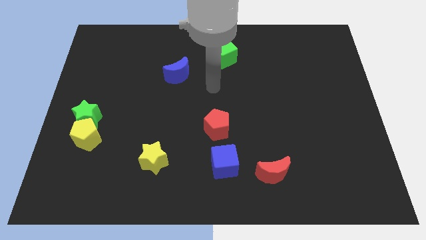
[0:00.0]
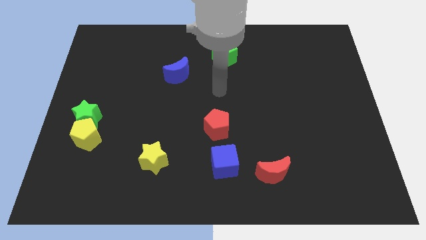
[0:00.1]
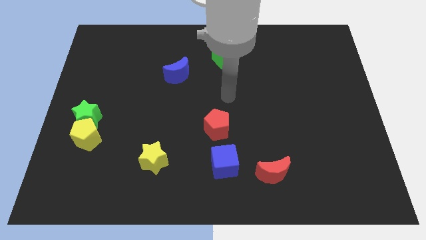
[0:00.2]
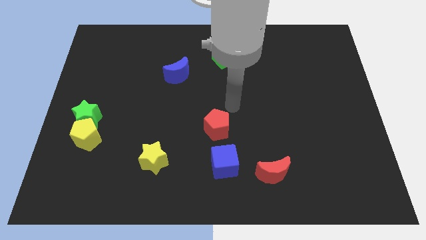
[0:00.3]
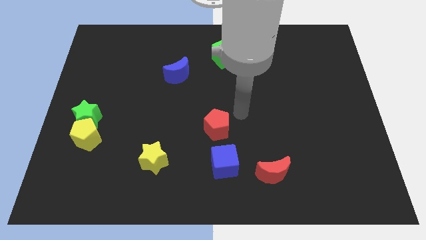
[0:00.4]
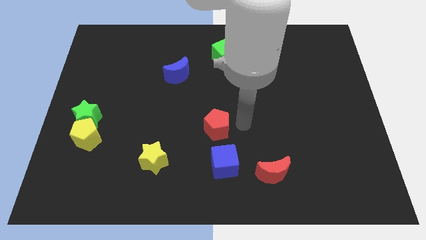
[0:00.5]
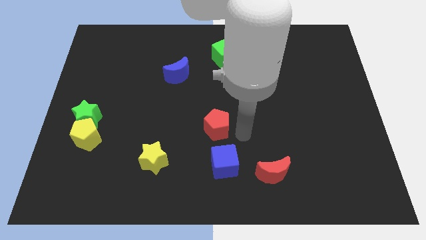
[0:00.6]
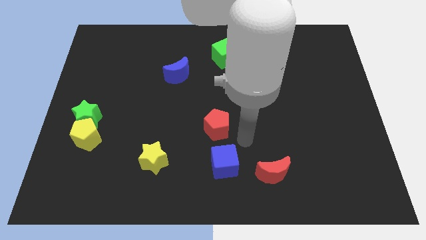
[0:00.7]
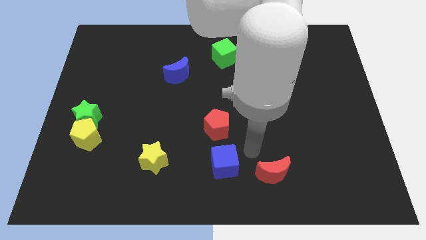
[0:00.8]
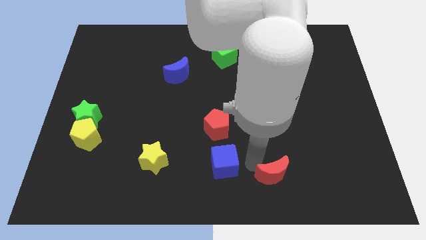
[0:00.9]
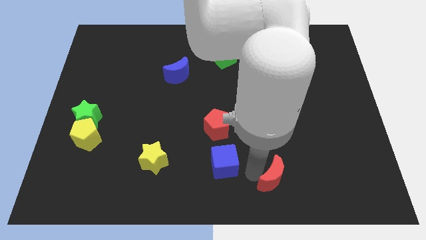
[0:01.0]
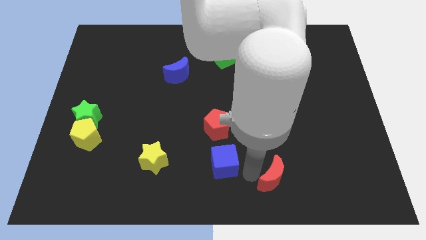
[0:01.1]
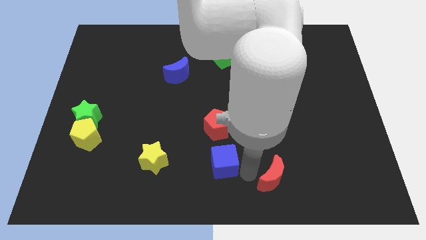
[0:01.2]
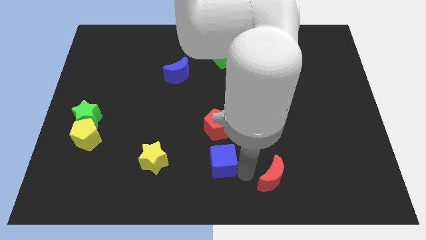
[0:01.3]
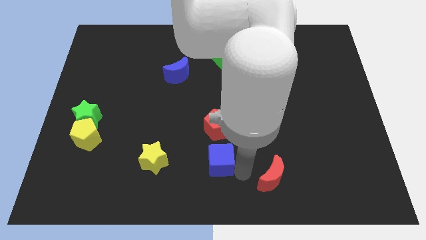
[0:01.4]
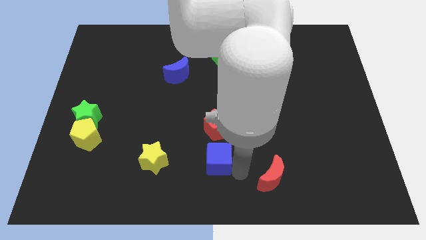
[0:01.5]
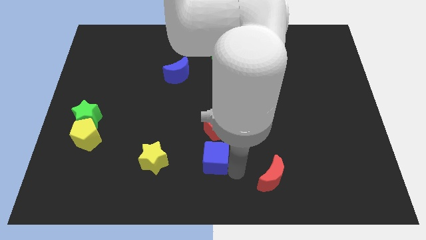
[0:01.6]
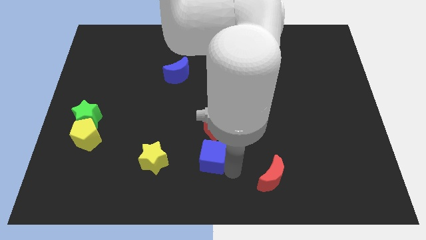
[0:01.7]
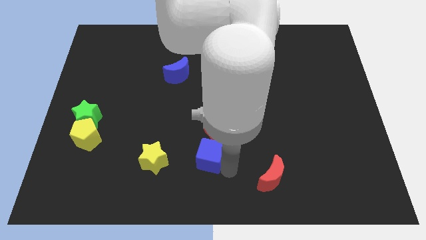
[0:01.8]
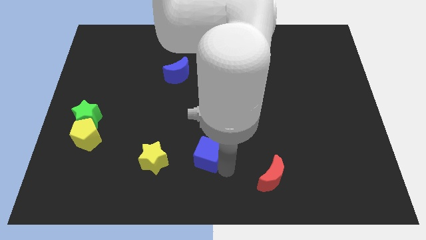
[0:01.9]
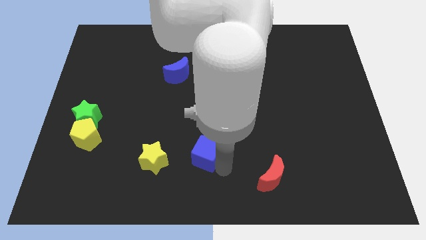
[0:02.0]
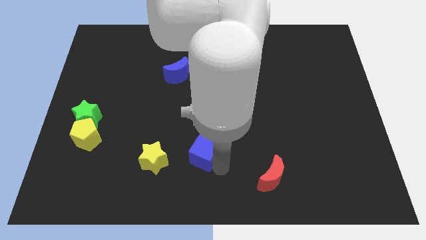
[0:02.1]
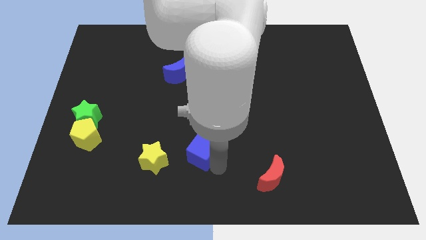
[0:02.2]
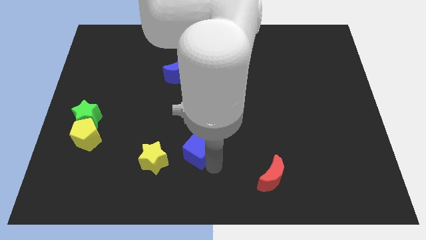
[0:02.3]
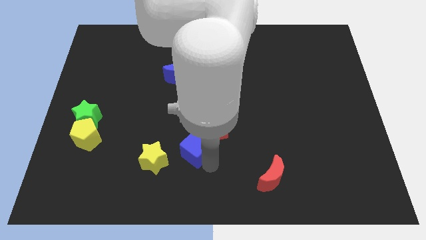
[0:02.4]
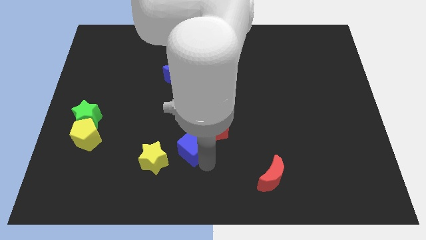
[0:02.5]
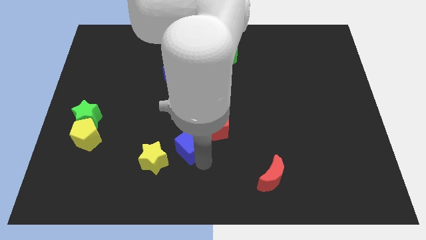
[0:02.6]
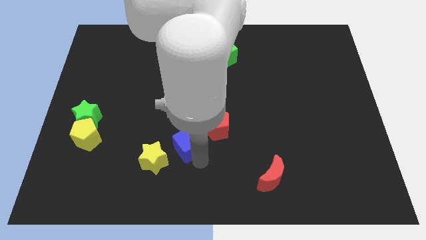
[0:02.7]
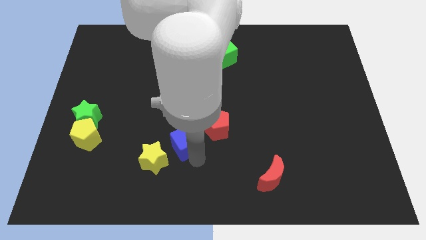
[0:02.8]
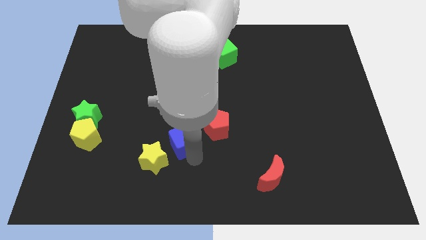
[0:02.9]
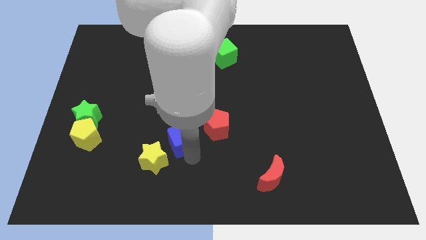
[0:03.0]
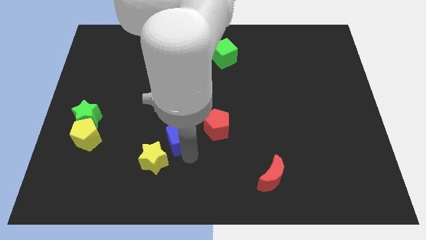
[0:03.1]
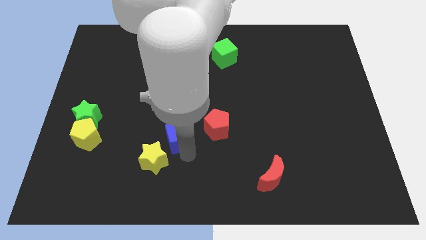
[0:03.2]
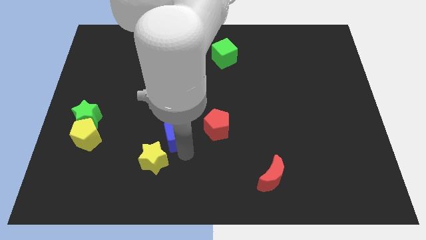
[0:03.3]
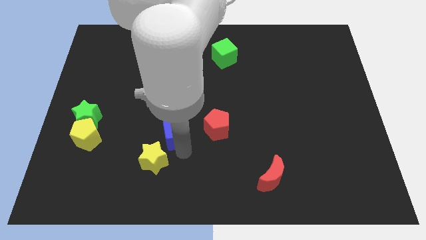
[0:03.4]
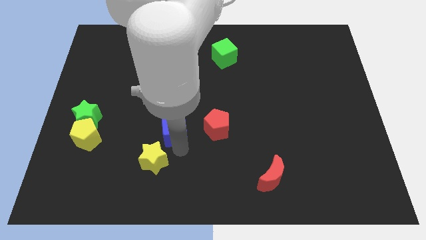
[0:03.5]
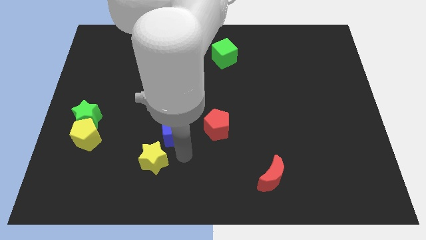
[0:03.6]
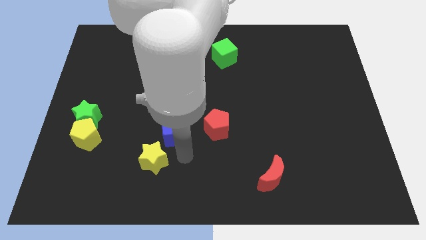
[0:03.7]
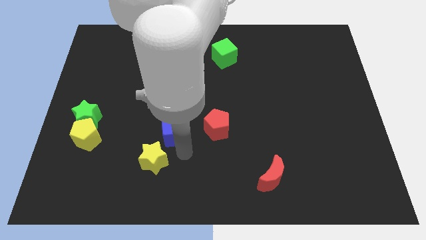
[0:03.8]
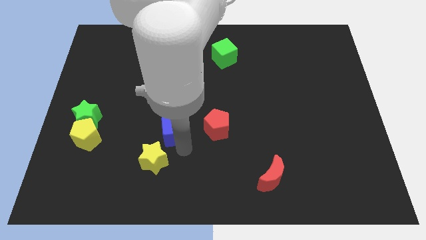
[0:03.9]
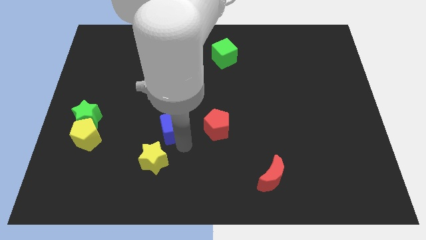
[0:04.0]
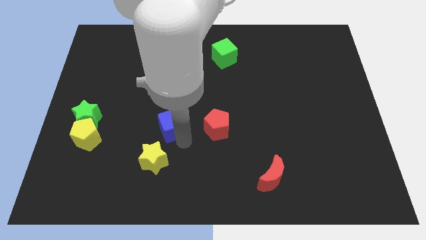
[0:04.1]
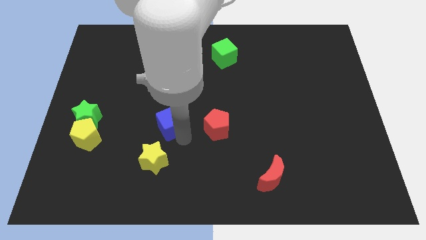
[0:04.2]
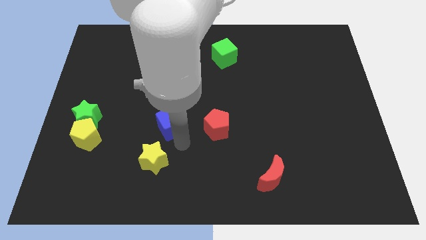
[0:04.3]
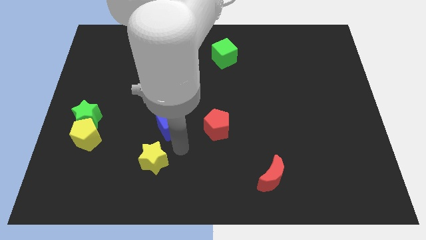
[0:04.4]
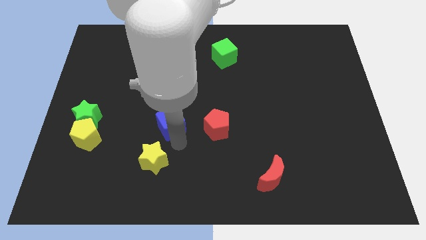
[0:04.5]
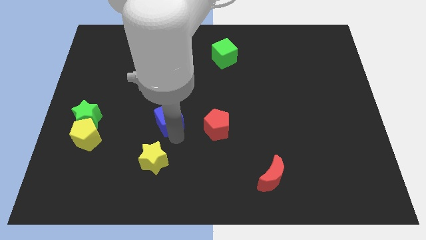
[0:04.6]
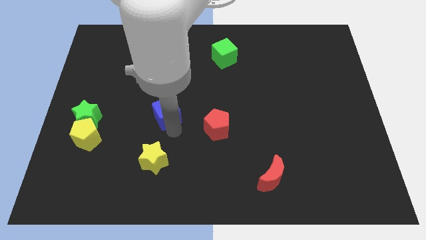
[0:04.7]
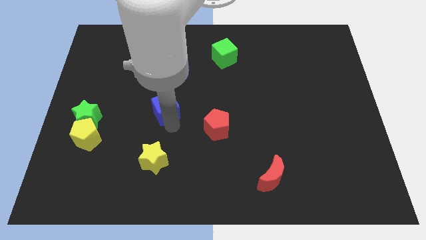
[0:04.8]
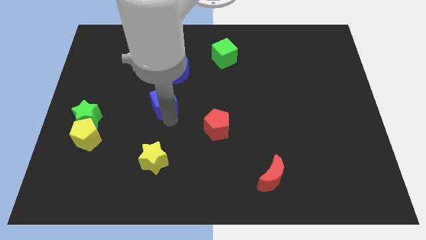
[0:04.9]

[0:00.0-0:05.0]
push the blue cube to the bottom left of the blue moon

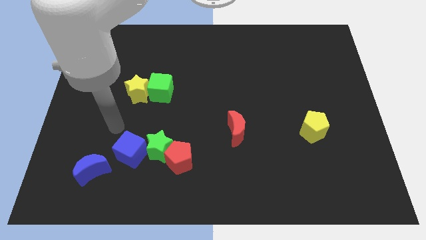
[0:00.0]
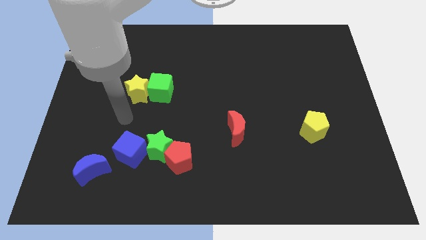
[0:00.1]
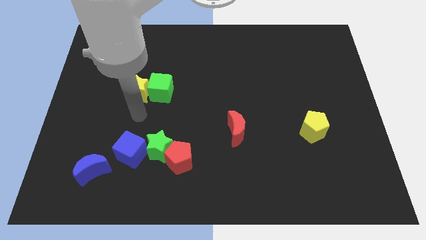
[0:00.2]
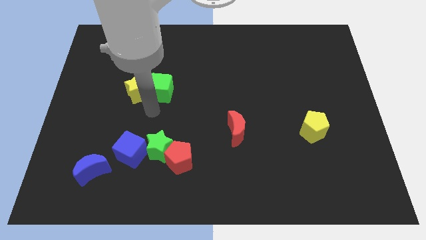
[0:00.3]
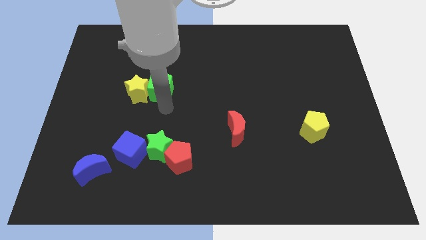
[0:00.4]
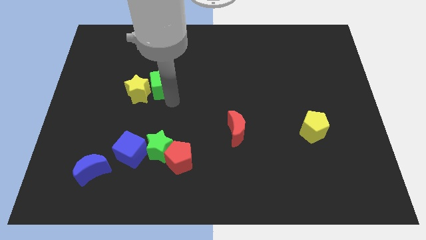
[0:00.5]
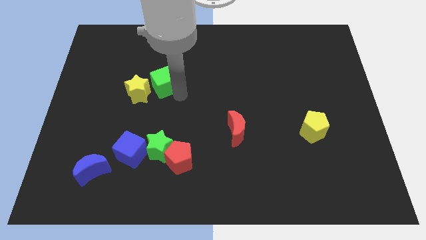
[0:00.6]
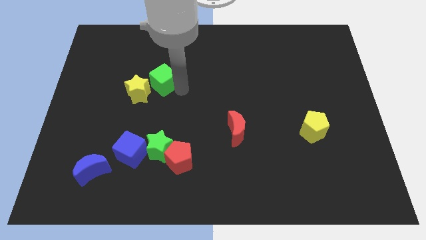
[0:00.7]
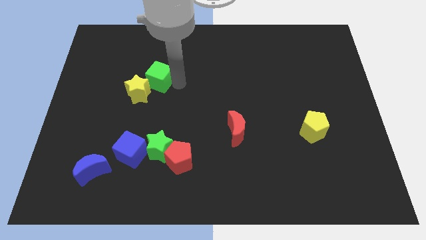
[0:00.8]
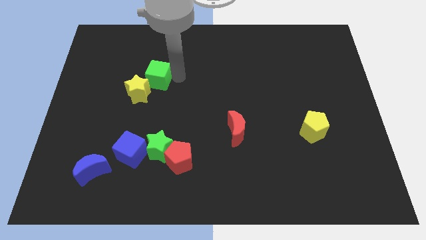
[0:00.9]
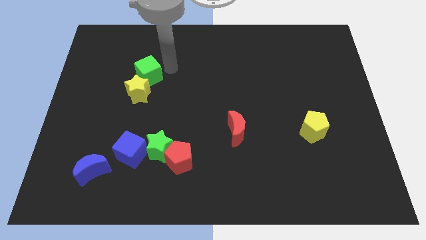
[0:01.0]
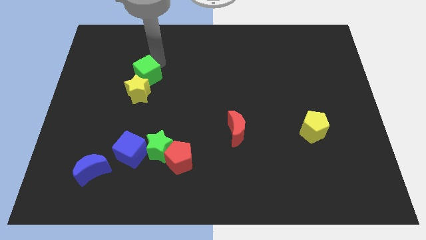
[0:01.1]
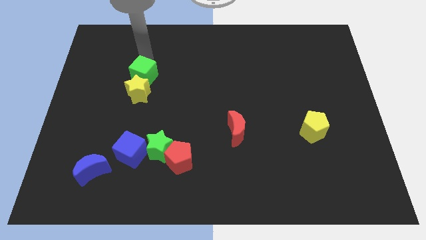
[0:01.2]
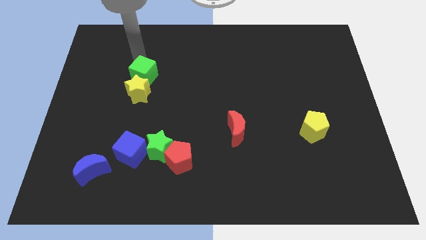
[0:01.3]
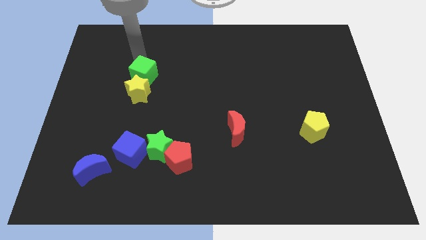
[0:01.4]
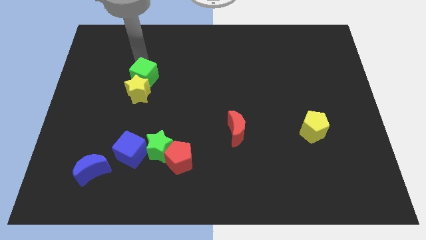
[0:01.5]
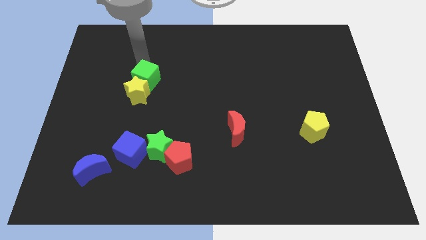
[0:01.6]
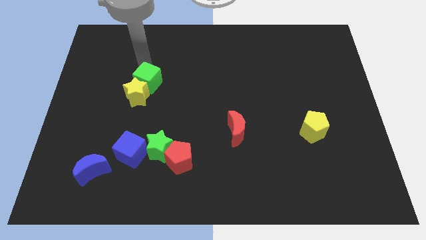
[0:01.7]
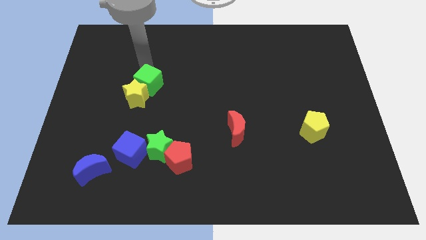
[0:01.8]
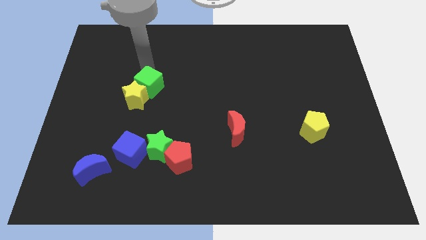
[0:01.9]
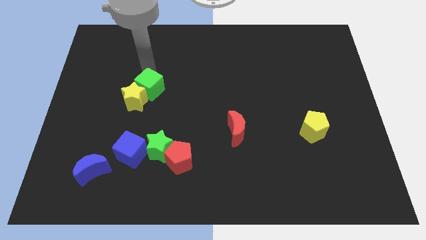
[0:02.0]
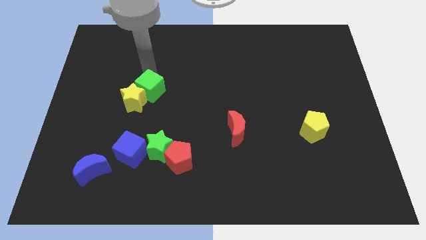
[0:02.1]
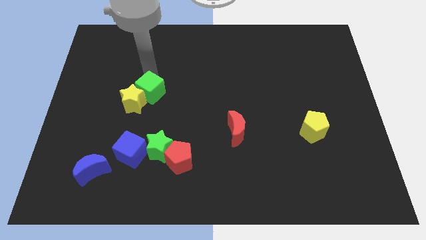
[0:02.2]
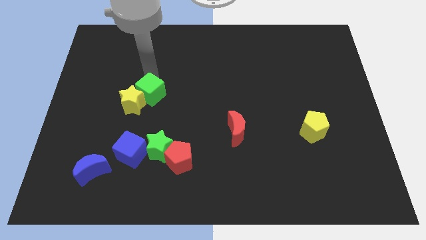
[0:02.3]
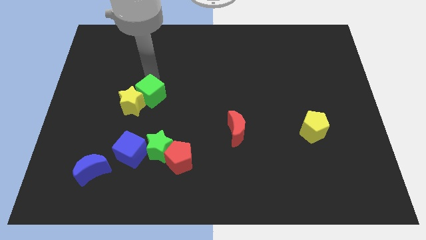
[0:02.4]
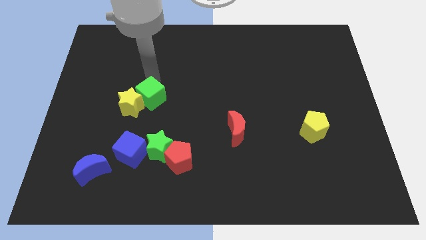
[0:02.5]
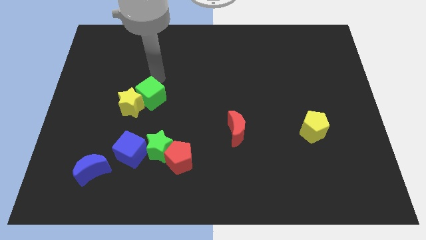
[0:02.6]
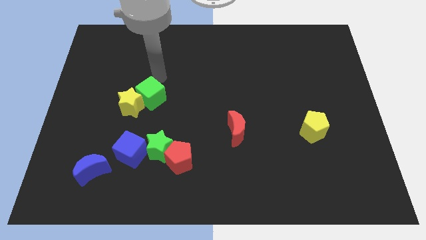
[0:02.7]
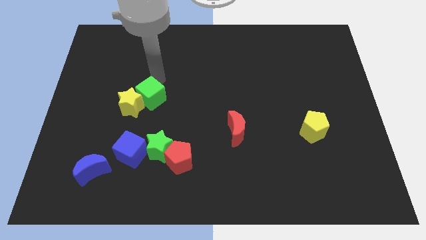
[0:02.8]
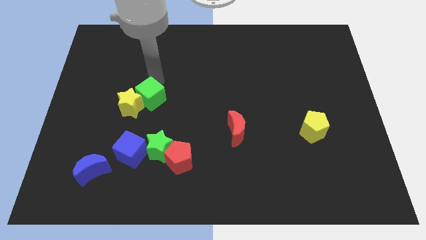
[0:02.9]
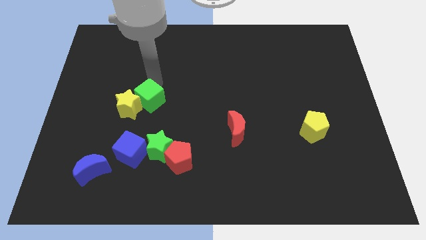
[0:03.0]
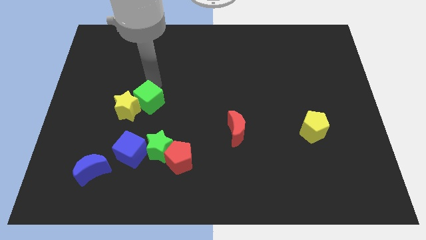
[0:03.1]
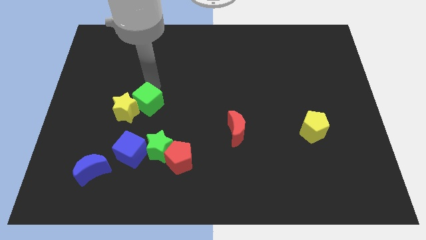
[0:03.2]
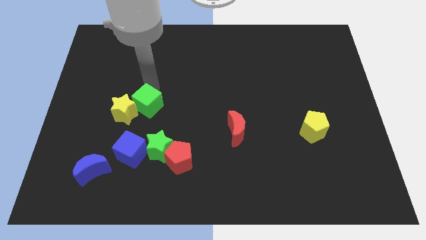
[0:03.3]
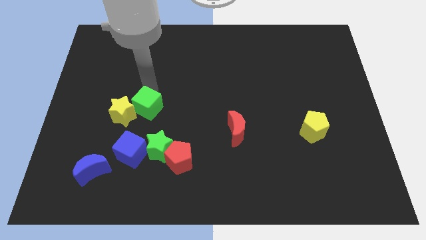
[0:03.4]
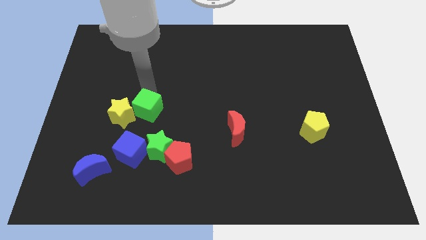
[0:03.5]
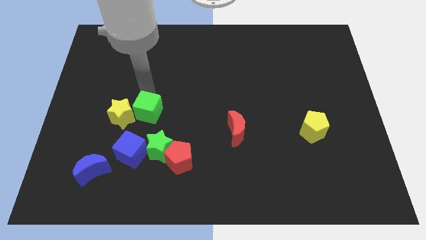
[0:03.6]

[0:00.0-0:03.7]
put the green cube to the top left of the green star
